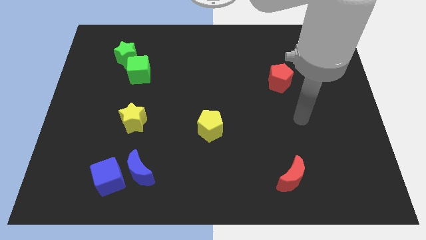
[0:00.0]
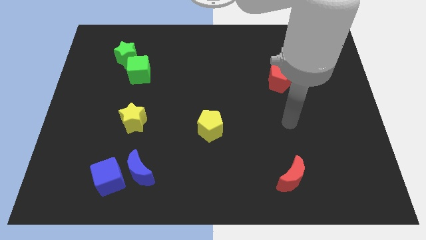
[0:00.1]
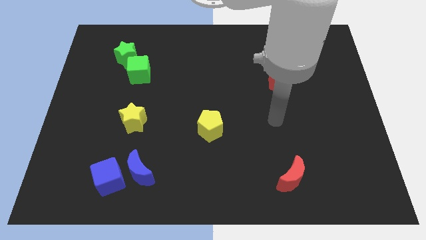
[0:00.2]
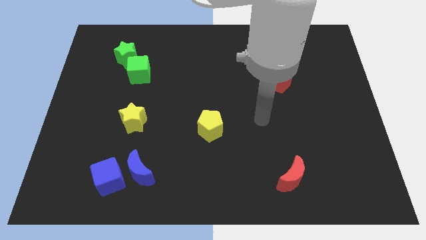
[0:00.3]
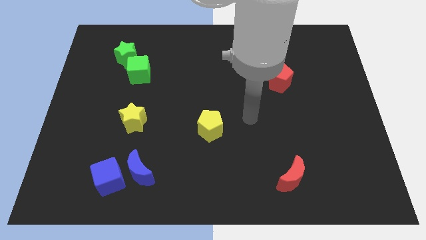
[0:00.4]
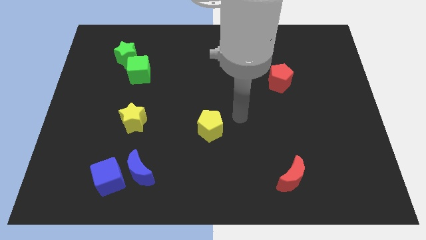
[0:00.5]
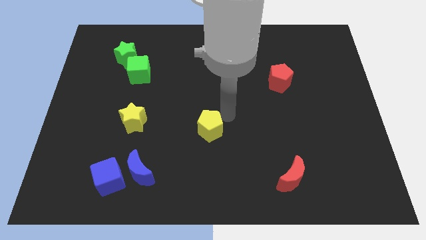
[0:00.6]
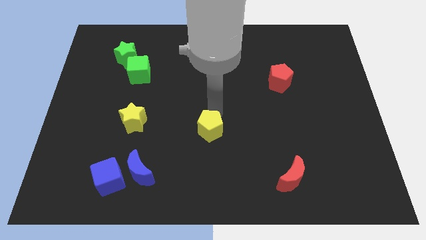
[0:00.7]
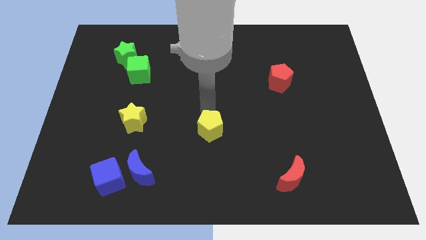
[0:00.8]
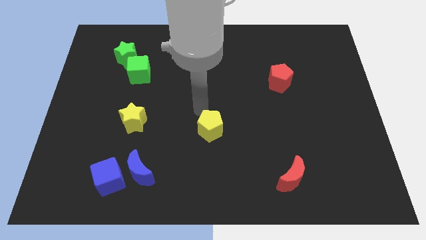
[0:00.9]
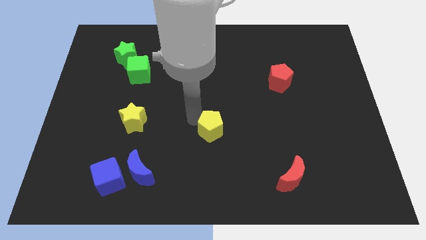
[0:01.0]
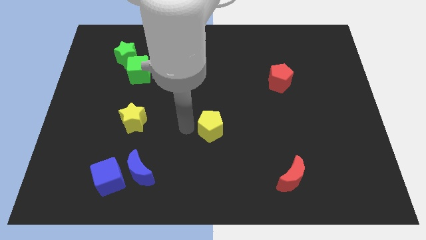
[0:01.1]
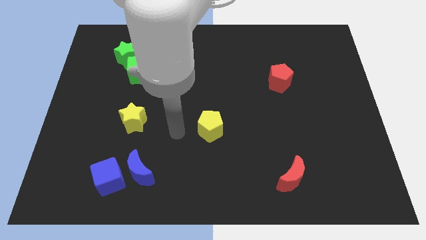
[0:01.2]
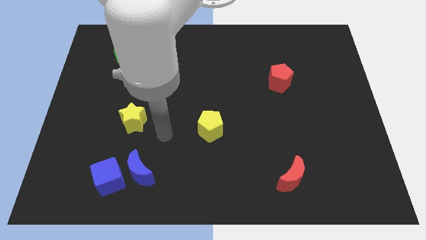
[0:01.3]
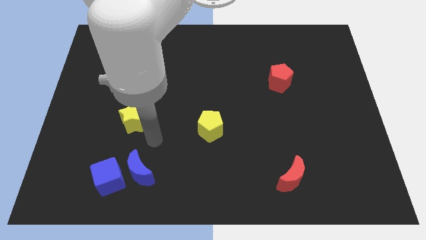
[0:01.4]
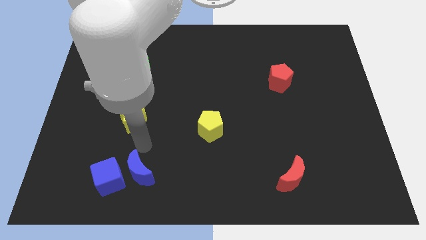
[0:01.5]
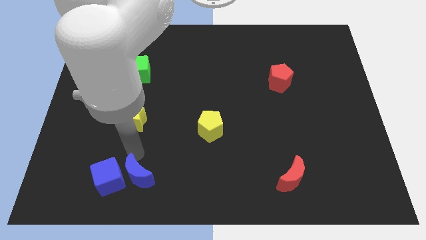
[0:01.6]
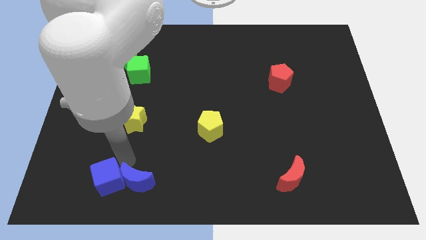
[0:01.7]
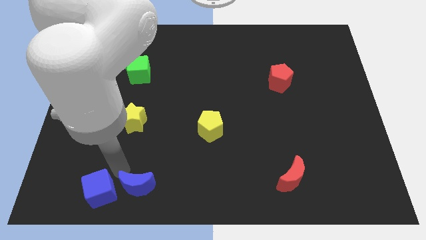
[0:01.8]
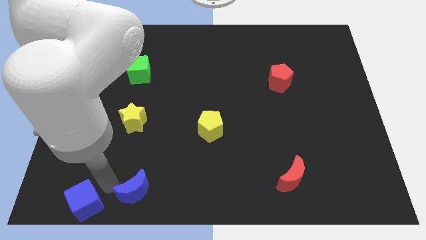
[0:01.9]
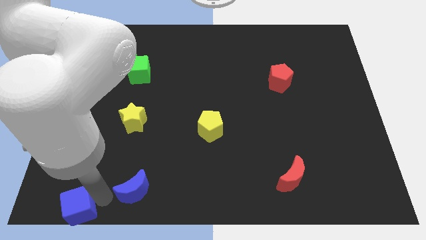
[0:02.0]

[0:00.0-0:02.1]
separate the blue moon from the blue cube

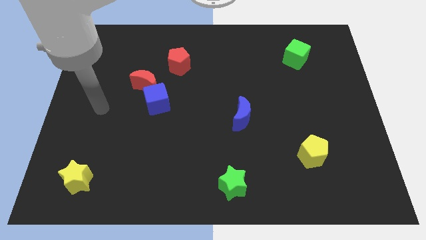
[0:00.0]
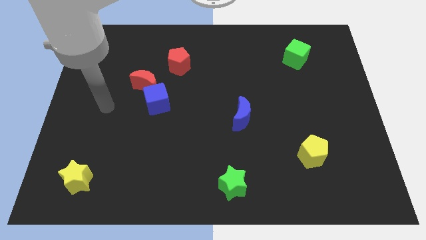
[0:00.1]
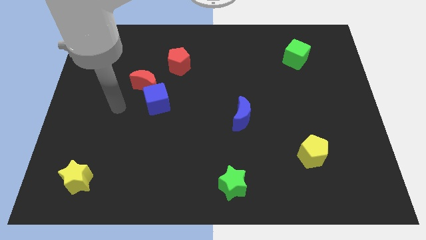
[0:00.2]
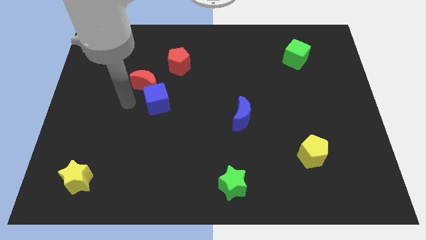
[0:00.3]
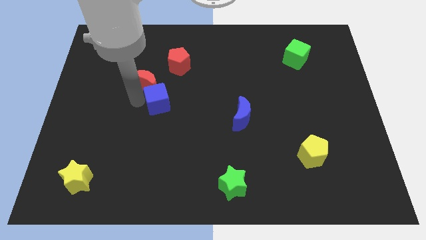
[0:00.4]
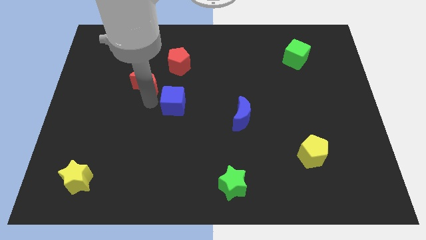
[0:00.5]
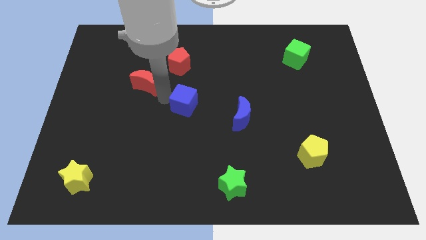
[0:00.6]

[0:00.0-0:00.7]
move the red moon away from the blue cube

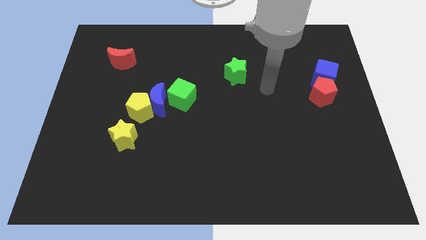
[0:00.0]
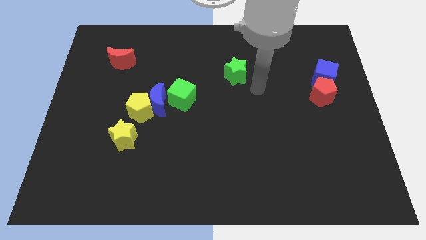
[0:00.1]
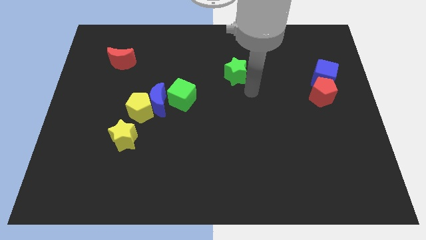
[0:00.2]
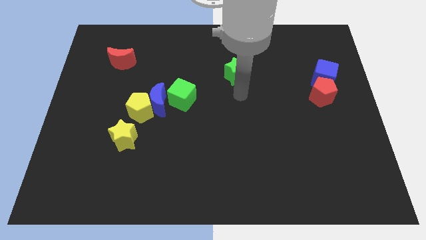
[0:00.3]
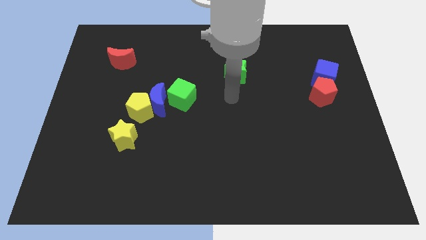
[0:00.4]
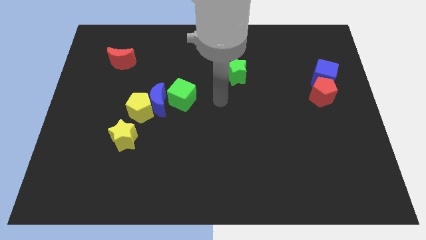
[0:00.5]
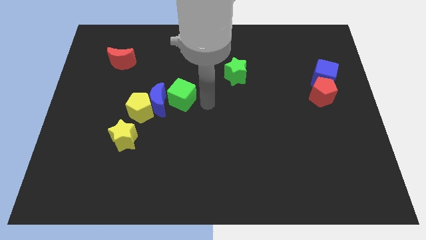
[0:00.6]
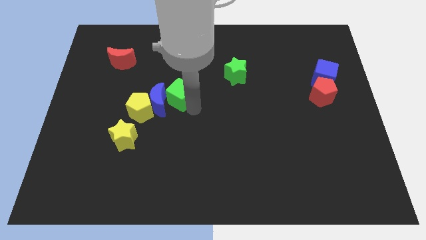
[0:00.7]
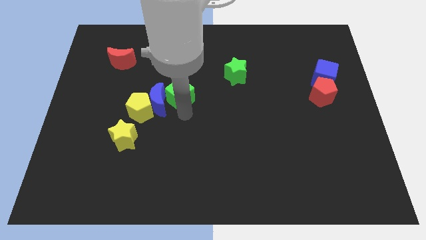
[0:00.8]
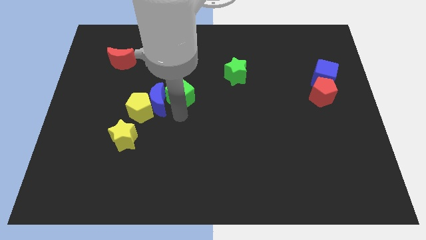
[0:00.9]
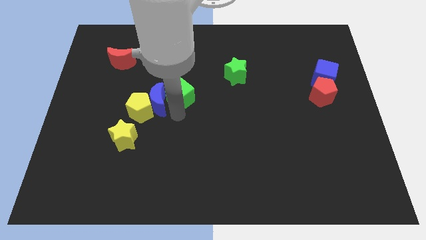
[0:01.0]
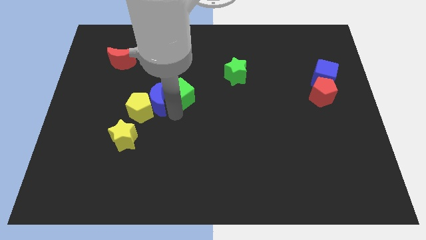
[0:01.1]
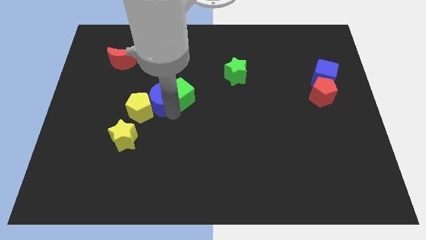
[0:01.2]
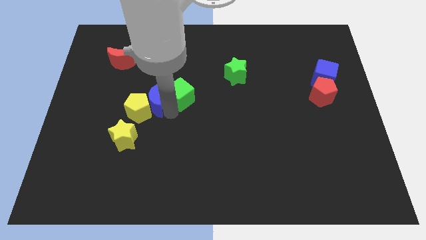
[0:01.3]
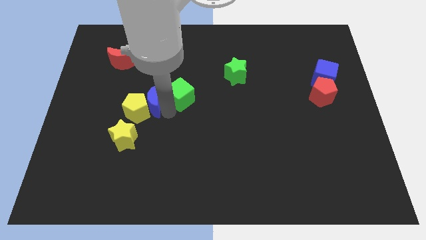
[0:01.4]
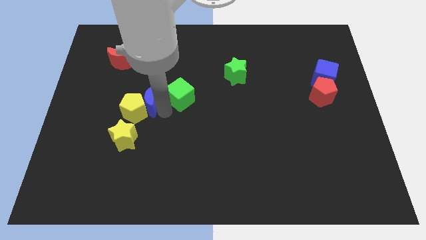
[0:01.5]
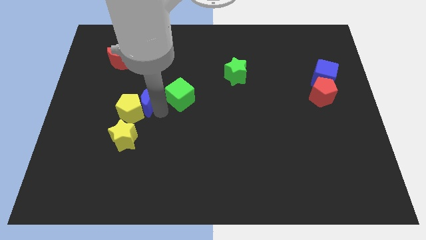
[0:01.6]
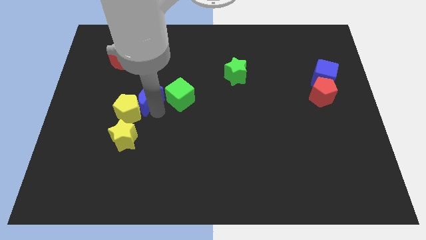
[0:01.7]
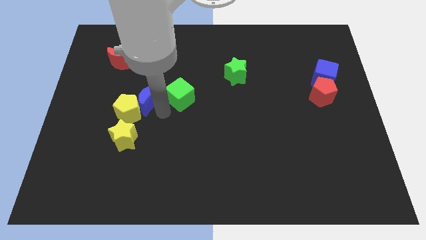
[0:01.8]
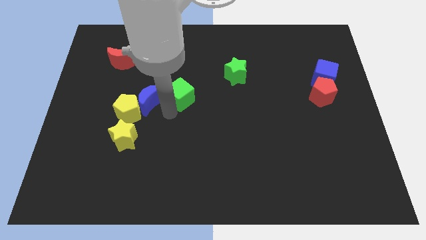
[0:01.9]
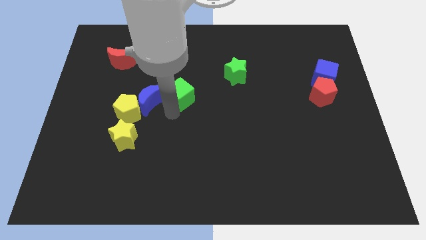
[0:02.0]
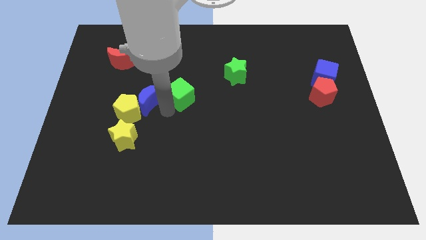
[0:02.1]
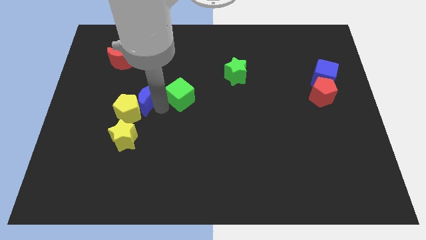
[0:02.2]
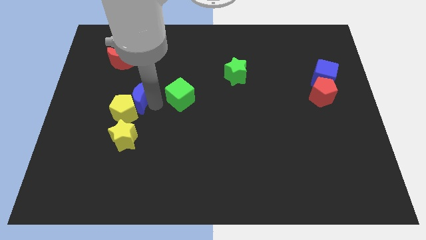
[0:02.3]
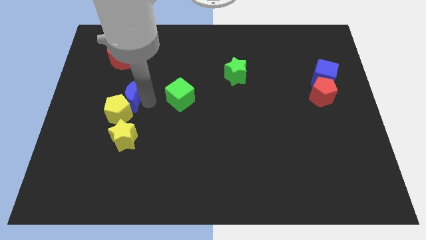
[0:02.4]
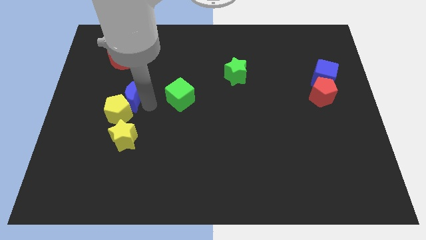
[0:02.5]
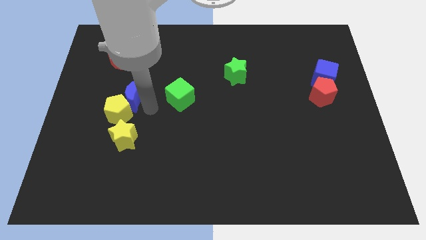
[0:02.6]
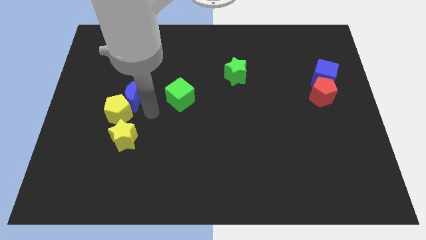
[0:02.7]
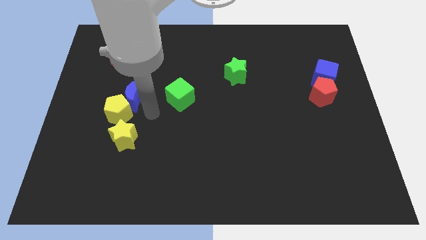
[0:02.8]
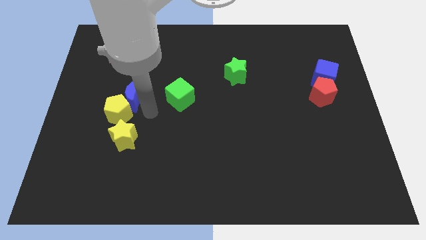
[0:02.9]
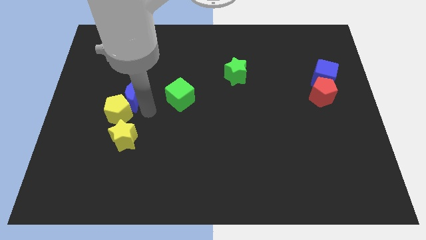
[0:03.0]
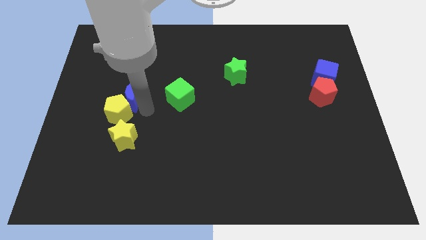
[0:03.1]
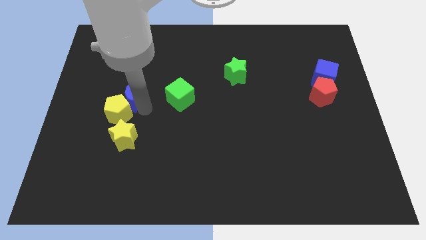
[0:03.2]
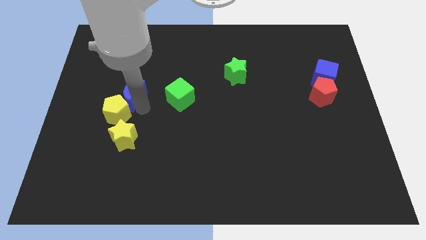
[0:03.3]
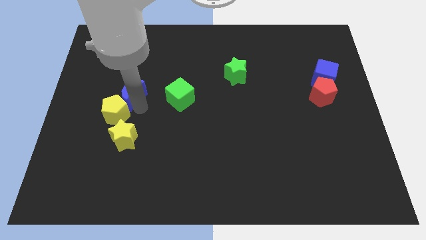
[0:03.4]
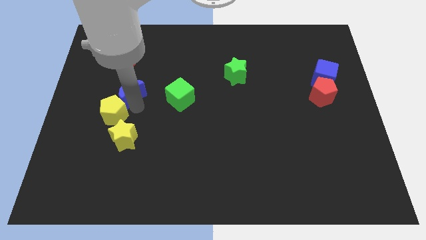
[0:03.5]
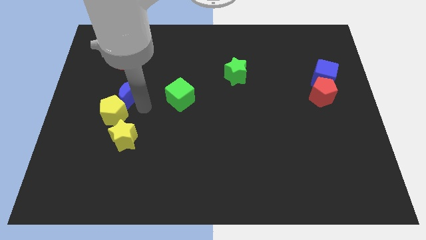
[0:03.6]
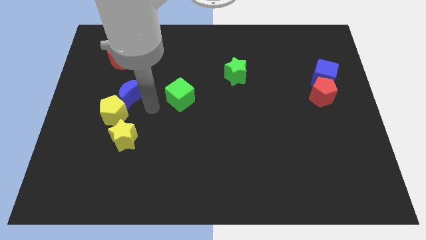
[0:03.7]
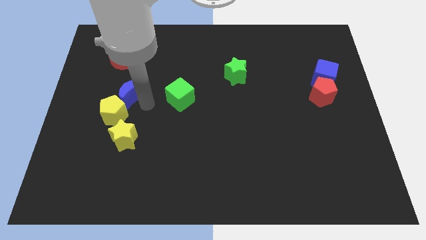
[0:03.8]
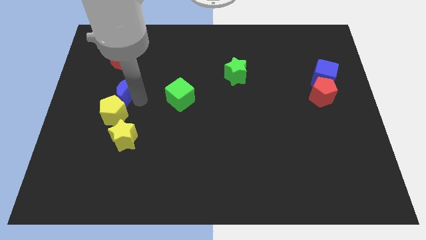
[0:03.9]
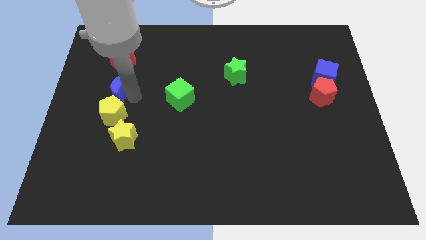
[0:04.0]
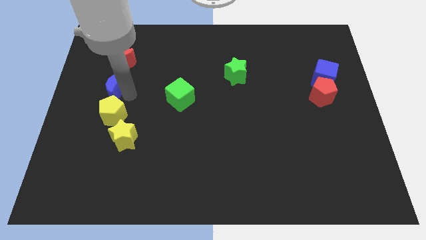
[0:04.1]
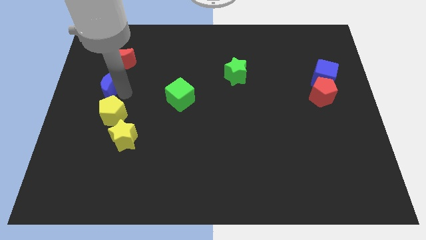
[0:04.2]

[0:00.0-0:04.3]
move the blue moon away from the yellow pentagon and green cube

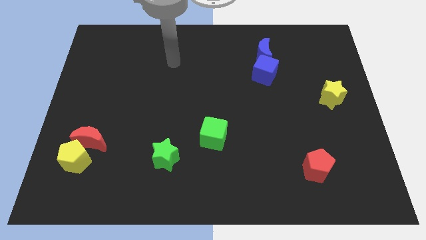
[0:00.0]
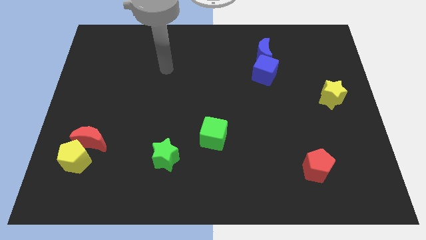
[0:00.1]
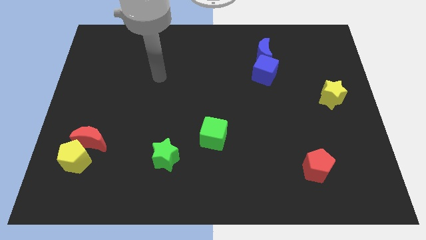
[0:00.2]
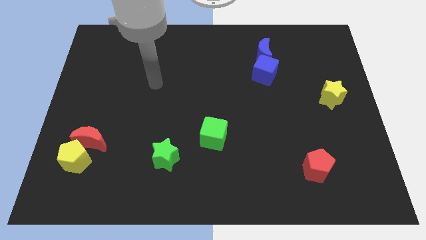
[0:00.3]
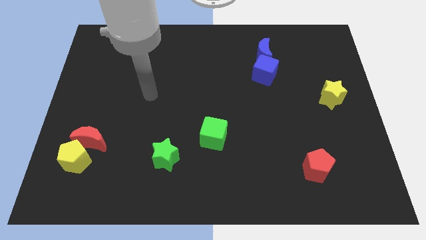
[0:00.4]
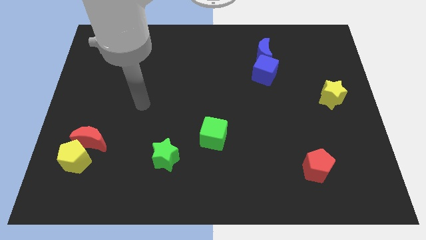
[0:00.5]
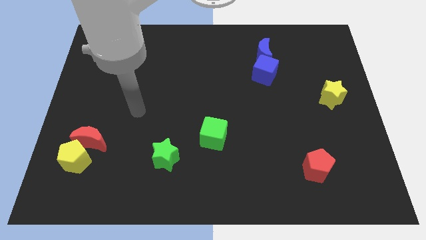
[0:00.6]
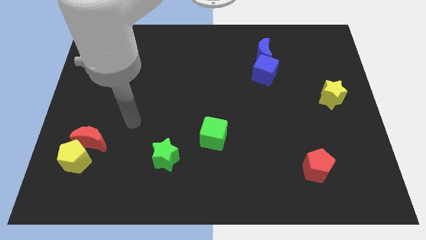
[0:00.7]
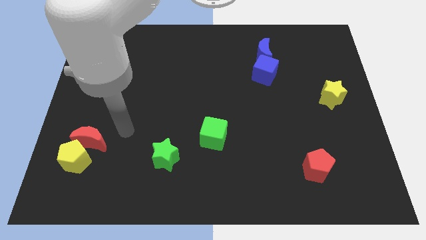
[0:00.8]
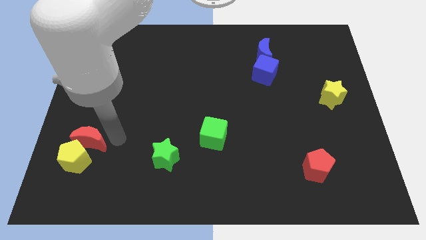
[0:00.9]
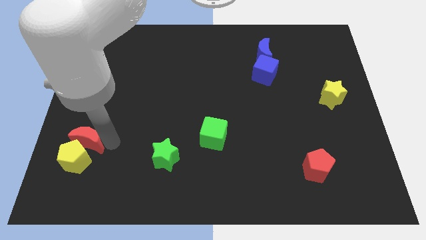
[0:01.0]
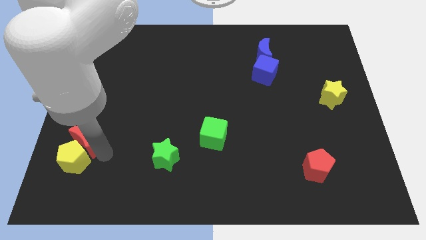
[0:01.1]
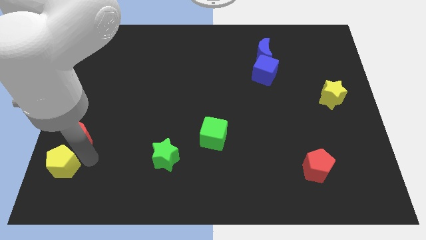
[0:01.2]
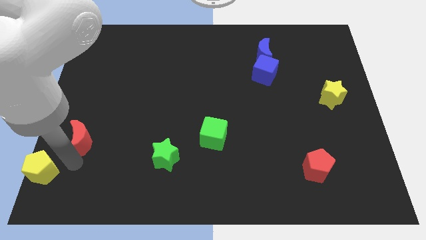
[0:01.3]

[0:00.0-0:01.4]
move the red moon away from the yellow pentagon

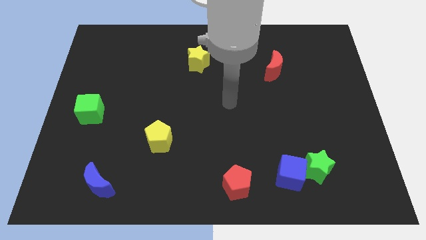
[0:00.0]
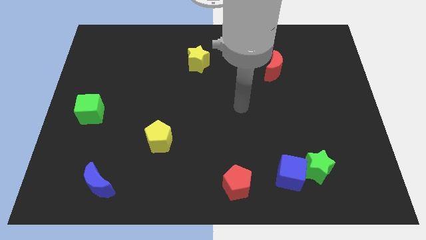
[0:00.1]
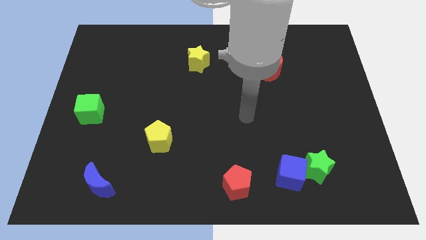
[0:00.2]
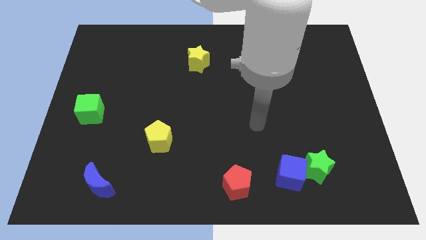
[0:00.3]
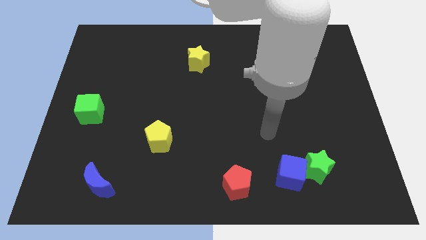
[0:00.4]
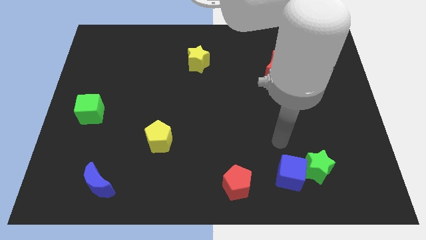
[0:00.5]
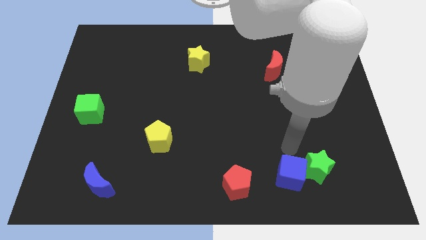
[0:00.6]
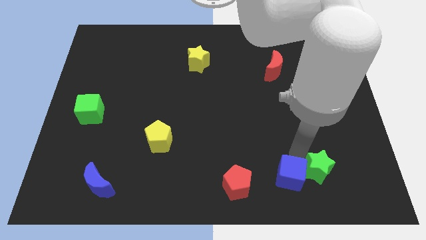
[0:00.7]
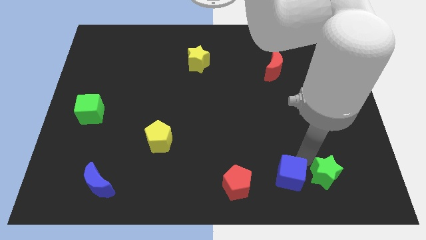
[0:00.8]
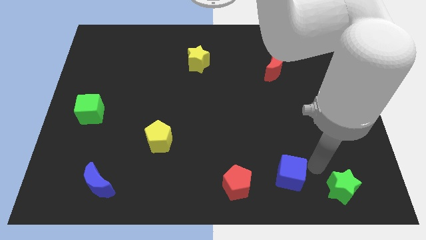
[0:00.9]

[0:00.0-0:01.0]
move the blue cube away from the green star
